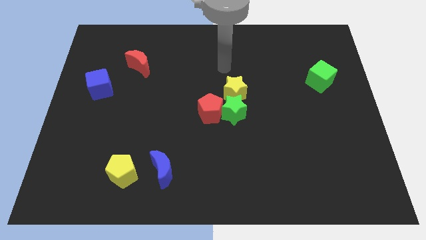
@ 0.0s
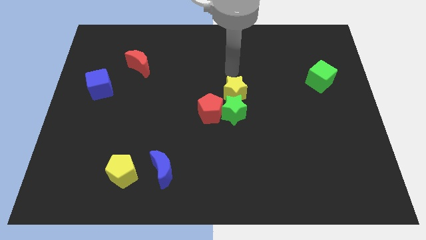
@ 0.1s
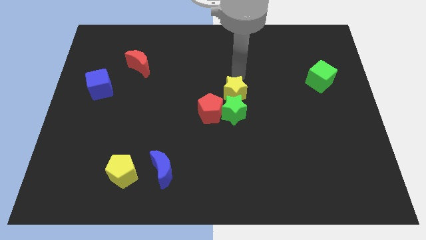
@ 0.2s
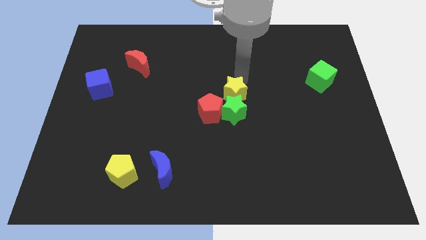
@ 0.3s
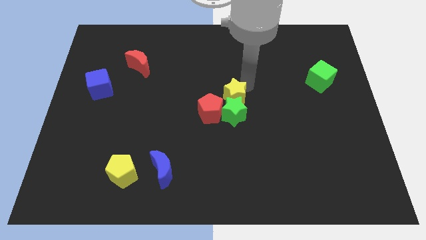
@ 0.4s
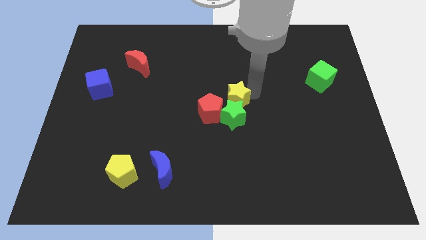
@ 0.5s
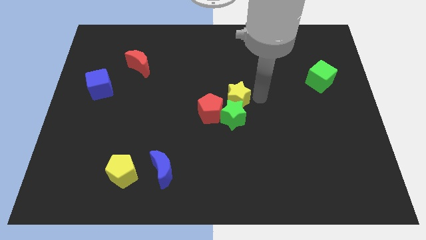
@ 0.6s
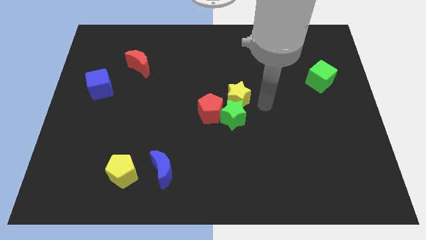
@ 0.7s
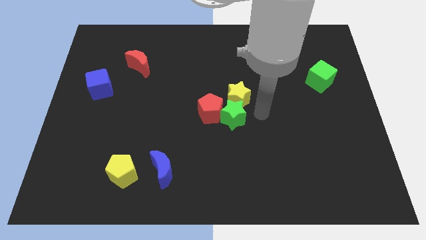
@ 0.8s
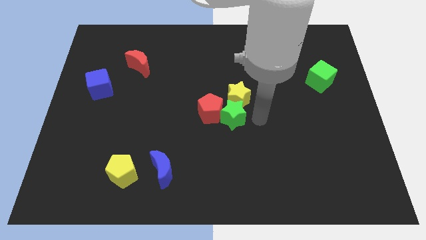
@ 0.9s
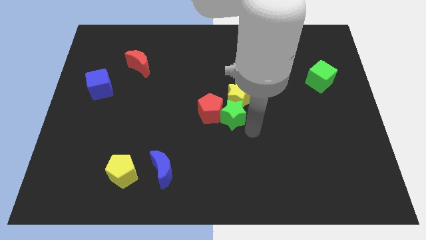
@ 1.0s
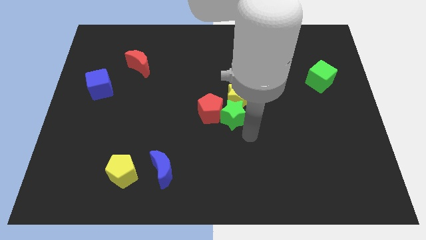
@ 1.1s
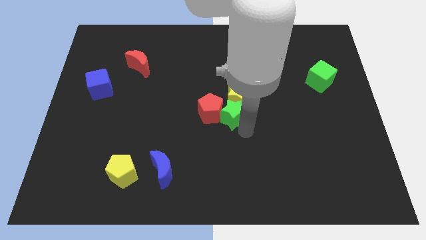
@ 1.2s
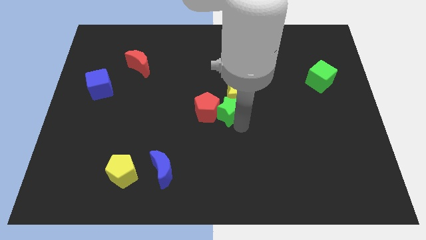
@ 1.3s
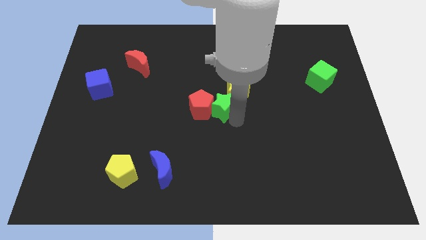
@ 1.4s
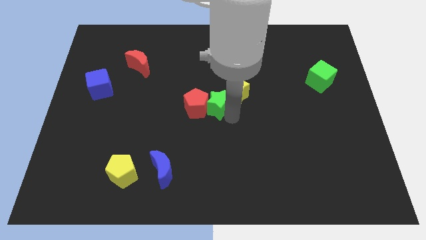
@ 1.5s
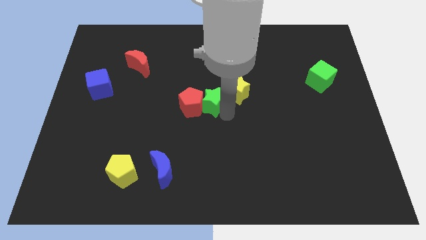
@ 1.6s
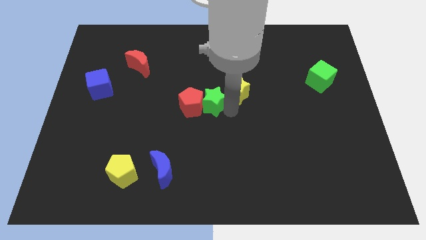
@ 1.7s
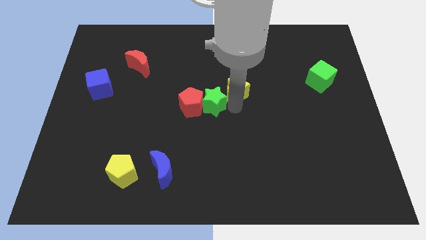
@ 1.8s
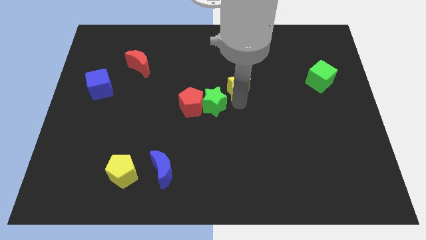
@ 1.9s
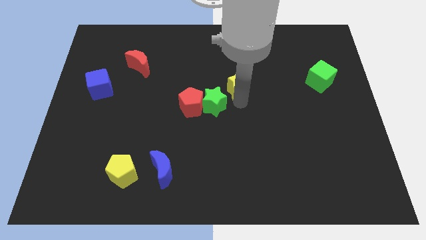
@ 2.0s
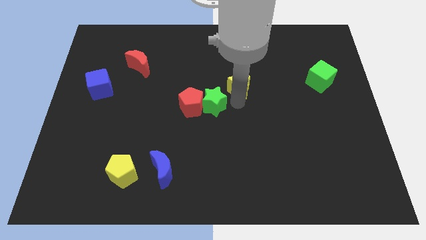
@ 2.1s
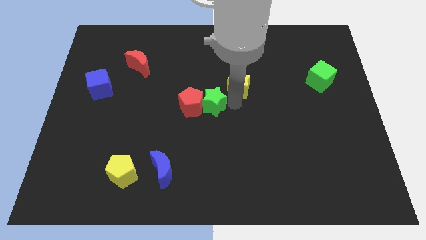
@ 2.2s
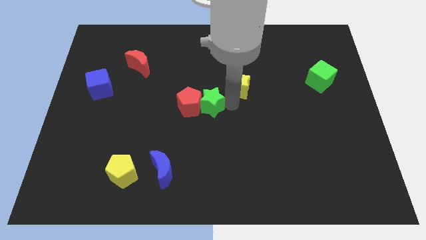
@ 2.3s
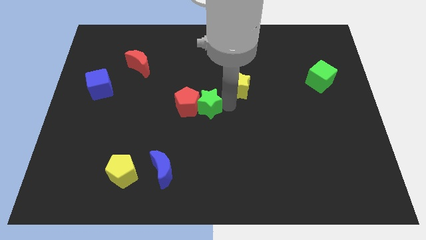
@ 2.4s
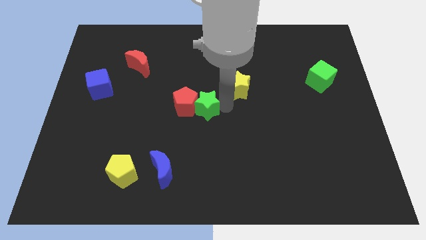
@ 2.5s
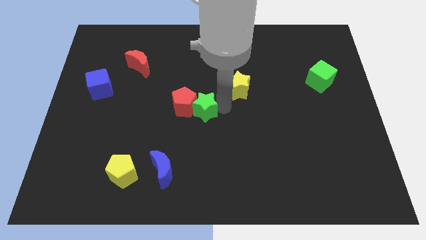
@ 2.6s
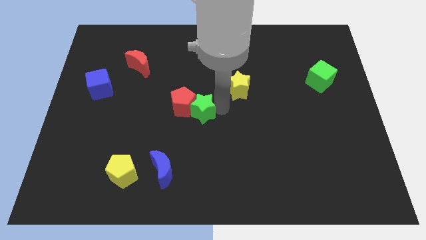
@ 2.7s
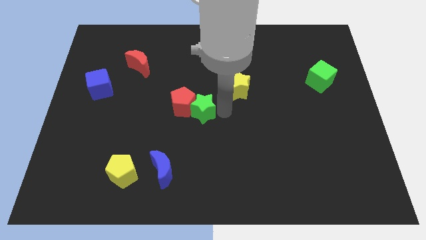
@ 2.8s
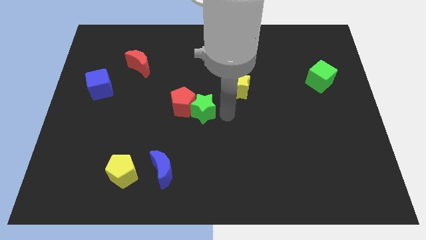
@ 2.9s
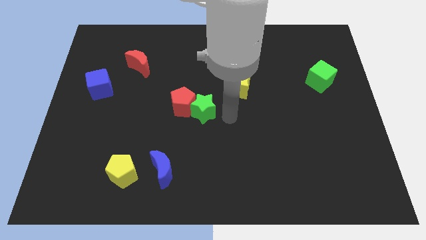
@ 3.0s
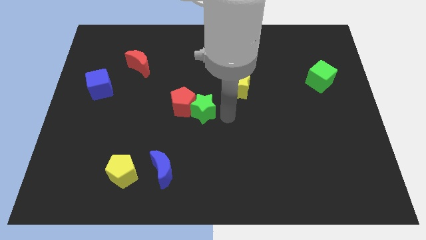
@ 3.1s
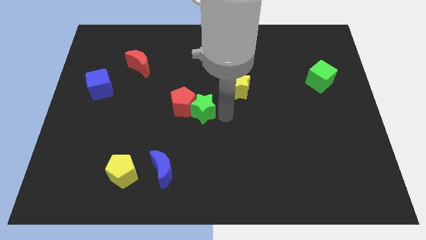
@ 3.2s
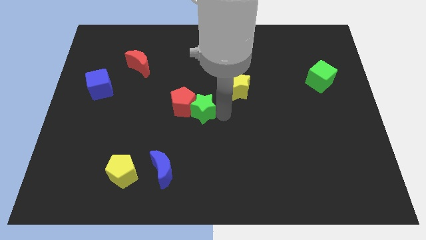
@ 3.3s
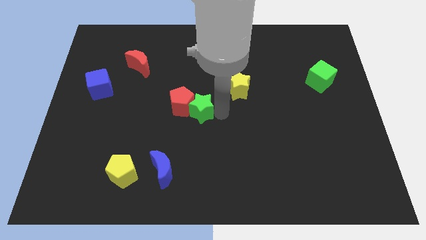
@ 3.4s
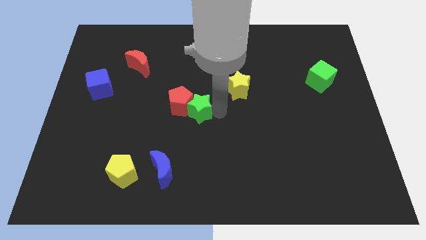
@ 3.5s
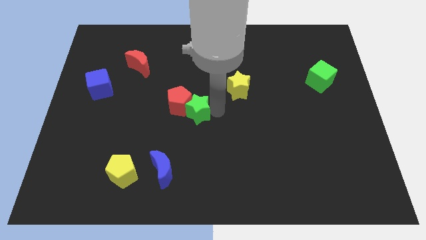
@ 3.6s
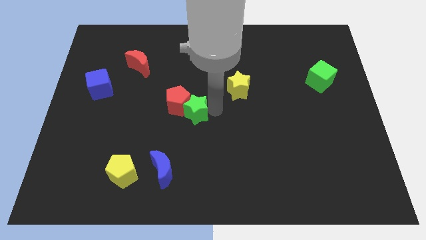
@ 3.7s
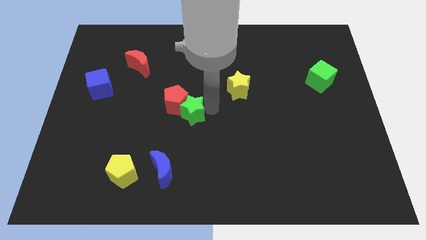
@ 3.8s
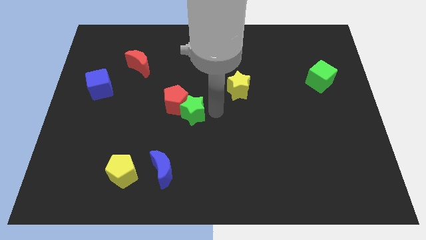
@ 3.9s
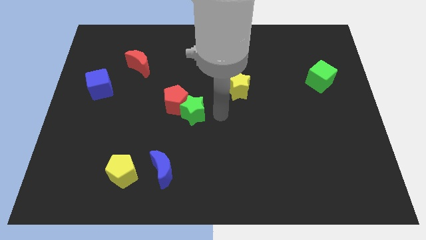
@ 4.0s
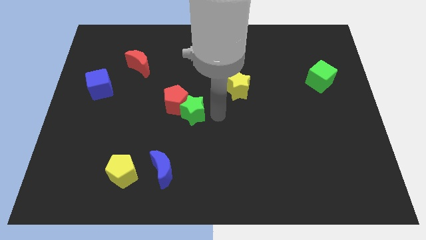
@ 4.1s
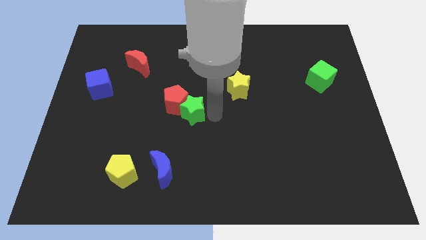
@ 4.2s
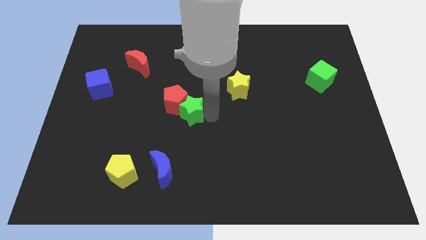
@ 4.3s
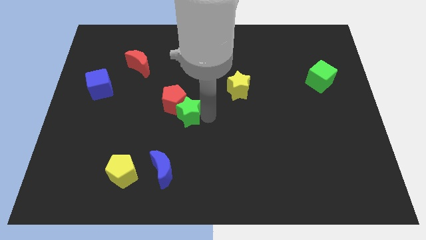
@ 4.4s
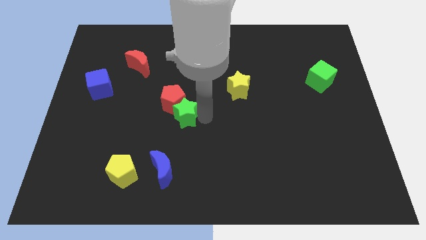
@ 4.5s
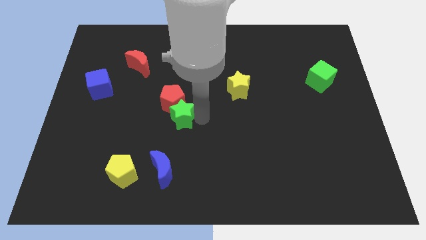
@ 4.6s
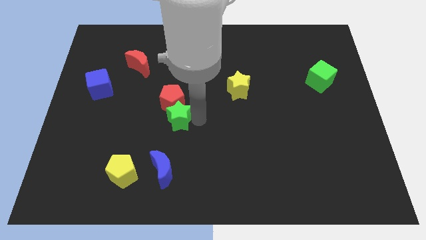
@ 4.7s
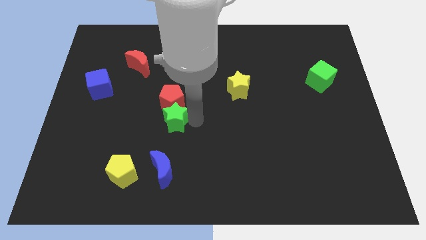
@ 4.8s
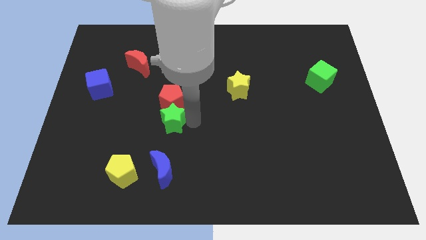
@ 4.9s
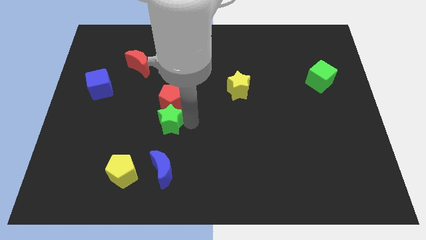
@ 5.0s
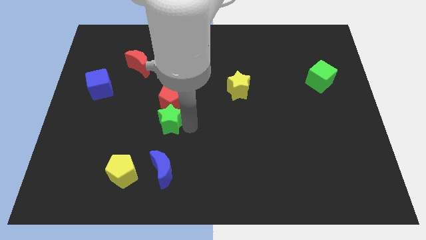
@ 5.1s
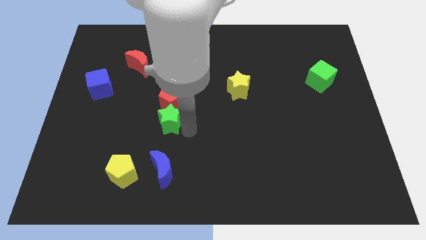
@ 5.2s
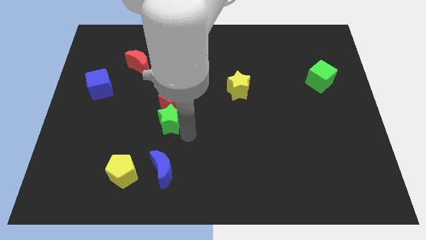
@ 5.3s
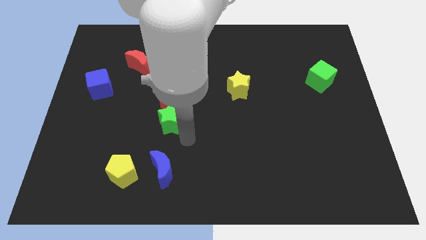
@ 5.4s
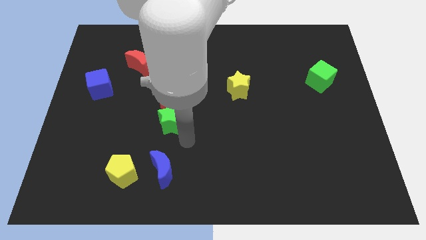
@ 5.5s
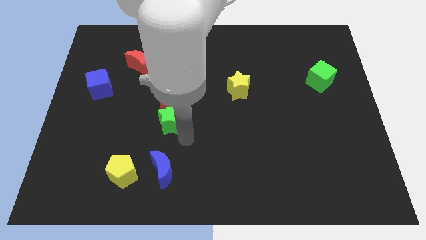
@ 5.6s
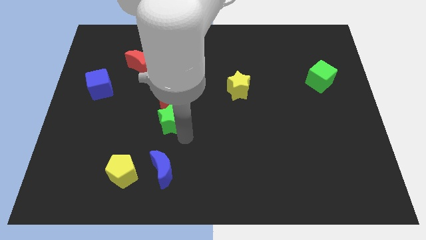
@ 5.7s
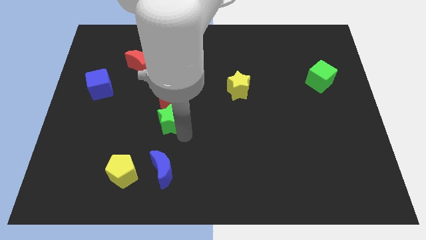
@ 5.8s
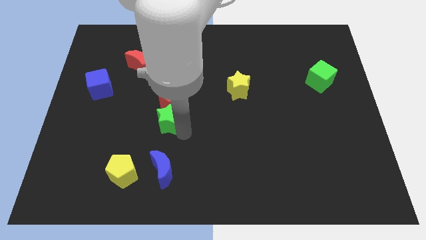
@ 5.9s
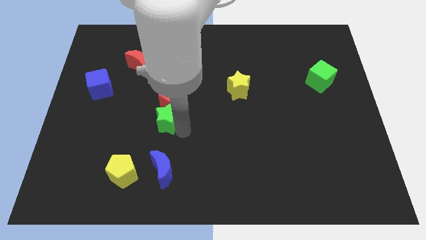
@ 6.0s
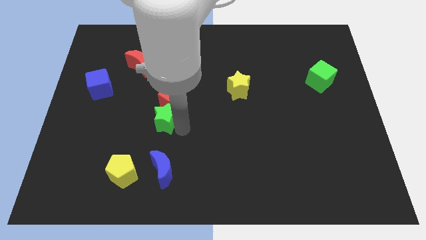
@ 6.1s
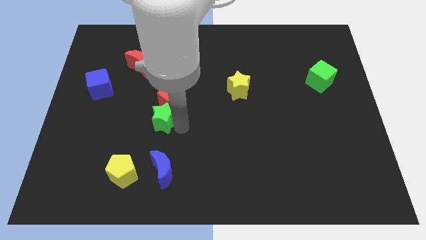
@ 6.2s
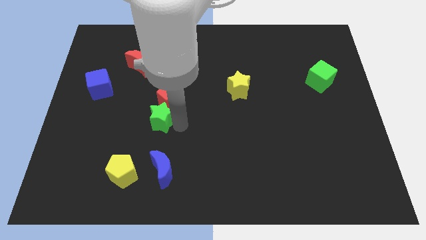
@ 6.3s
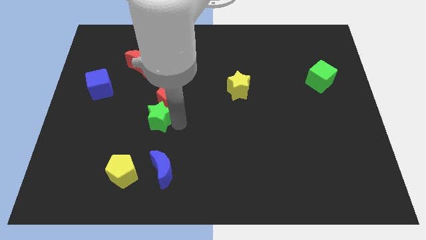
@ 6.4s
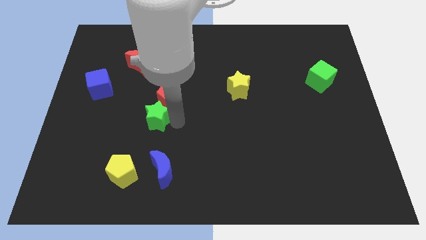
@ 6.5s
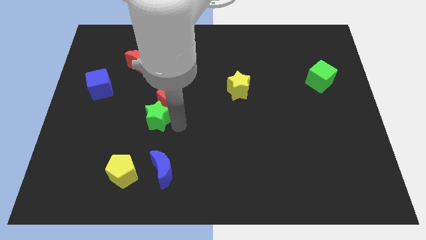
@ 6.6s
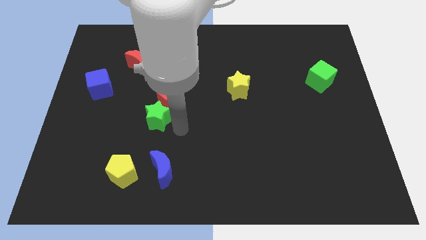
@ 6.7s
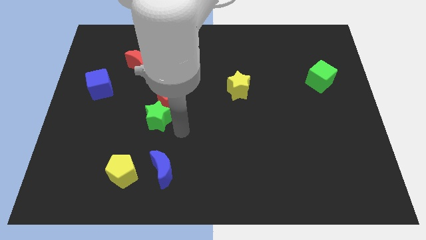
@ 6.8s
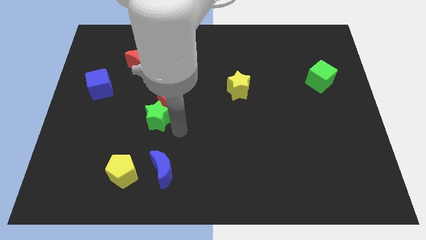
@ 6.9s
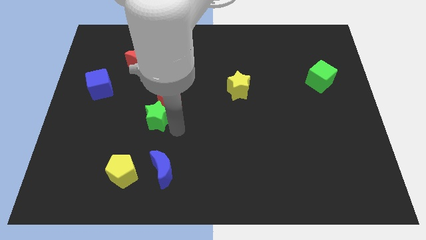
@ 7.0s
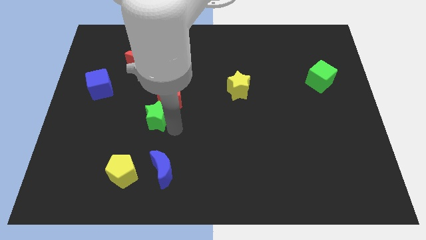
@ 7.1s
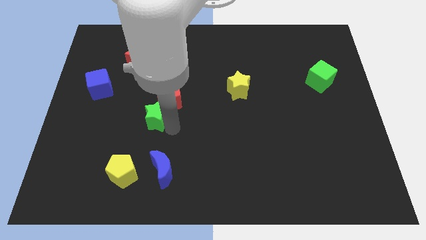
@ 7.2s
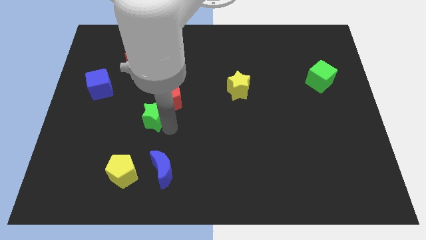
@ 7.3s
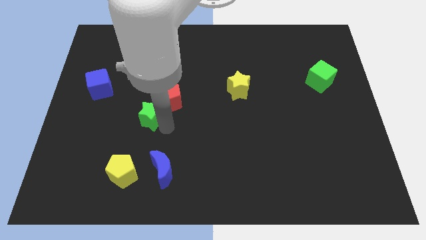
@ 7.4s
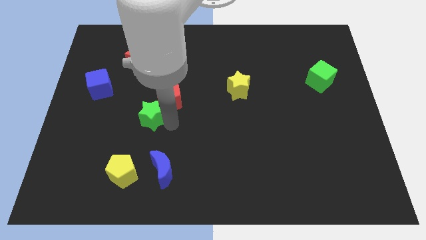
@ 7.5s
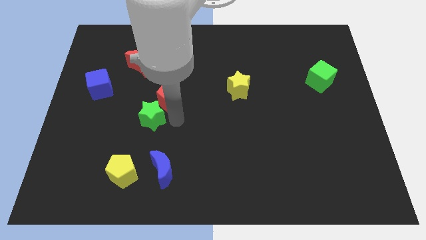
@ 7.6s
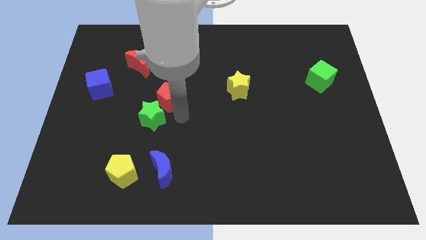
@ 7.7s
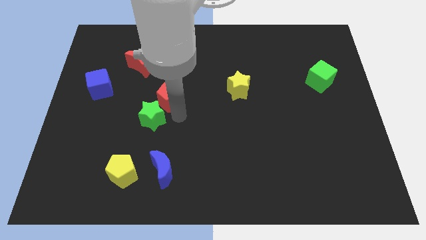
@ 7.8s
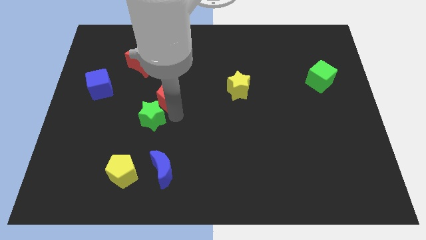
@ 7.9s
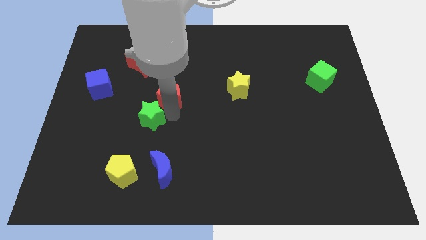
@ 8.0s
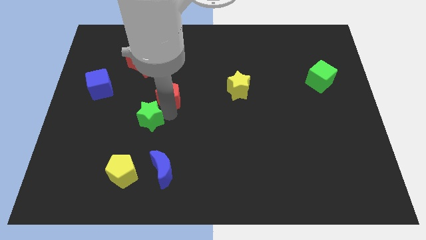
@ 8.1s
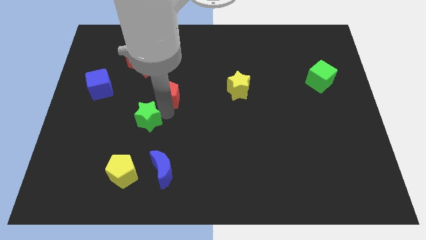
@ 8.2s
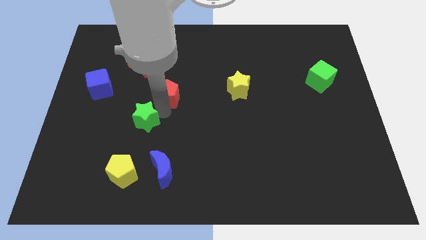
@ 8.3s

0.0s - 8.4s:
slide the green star to the left
